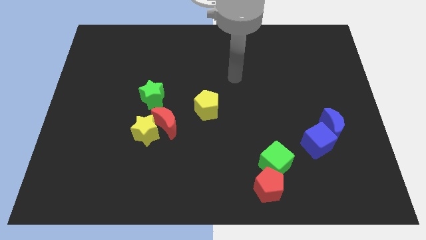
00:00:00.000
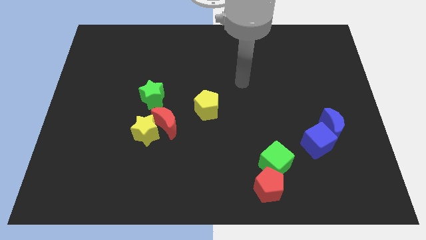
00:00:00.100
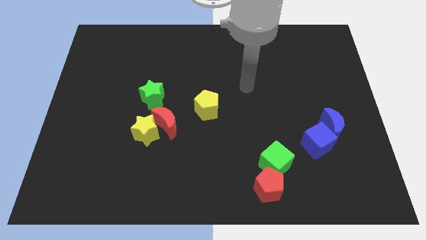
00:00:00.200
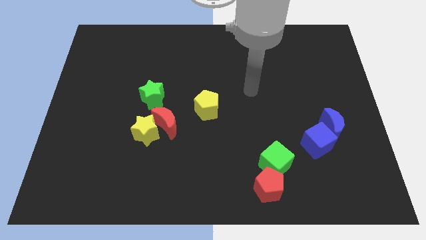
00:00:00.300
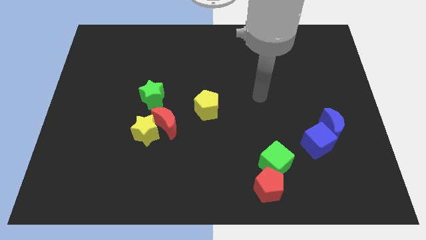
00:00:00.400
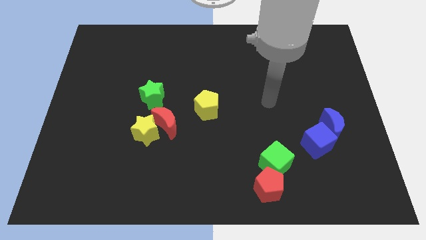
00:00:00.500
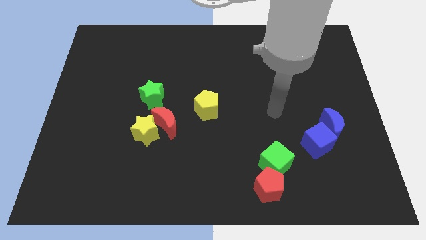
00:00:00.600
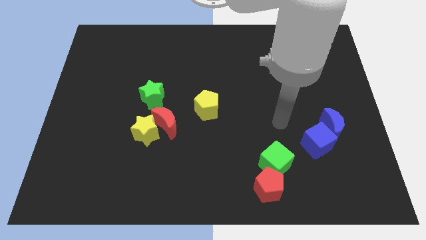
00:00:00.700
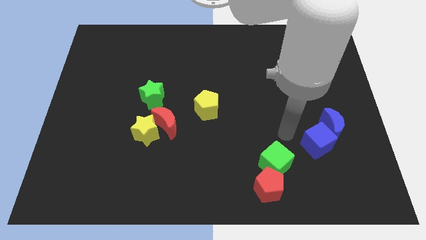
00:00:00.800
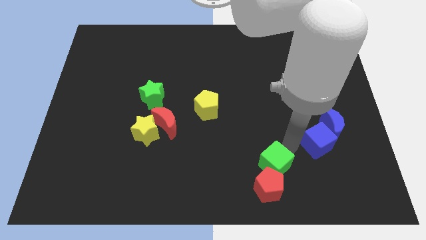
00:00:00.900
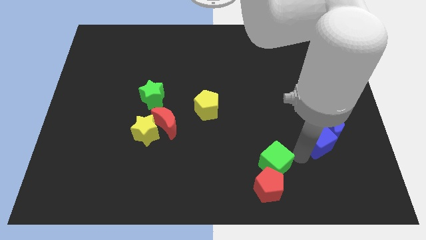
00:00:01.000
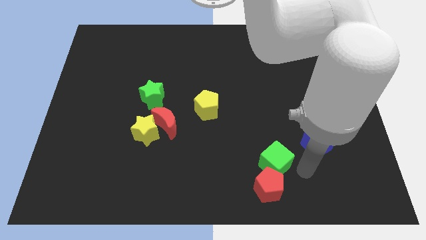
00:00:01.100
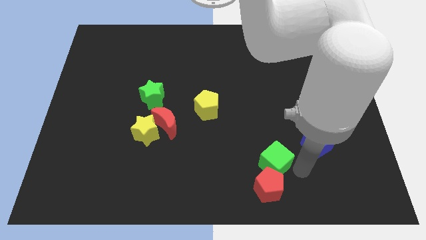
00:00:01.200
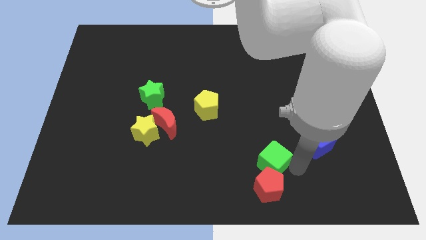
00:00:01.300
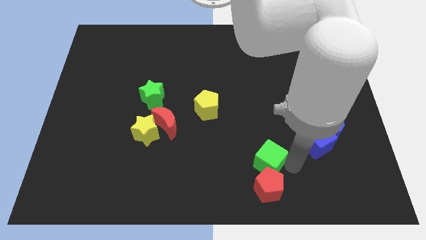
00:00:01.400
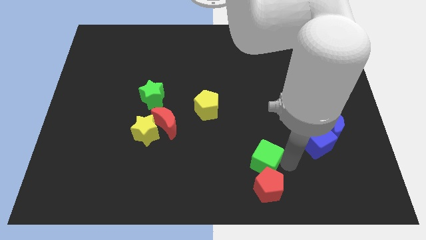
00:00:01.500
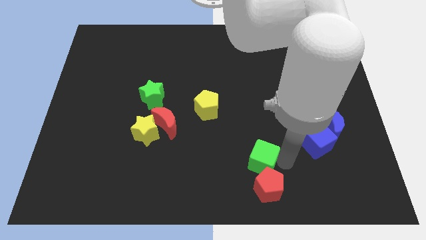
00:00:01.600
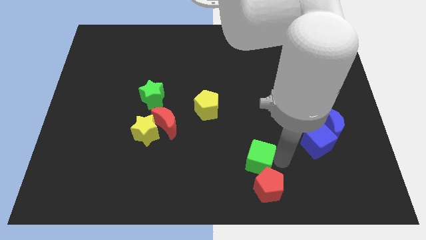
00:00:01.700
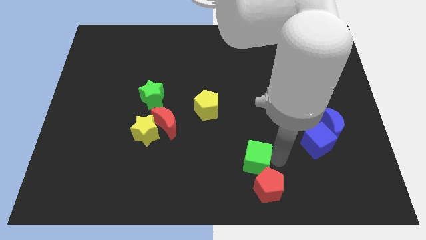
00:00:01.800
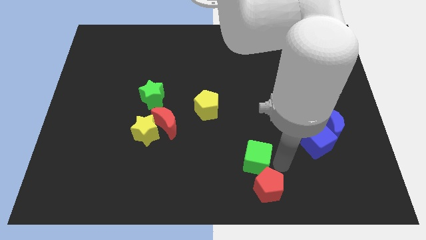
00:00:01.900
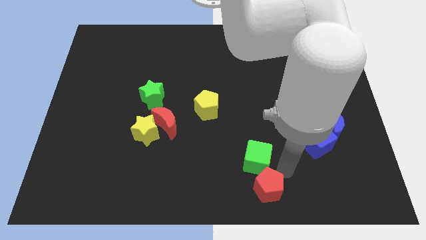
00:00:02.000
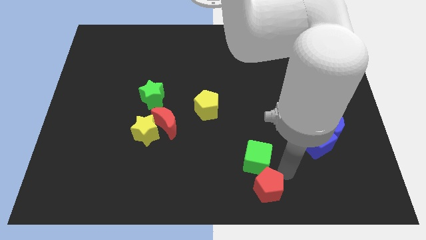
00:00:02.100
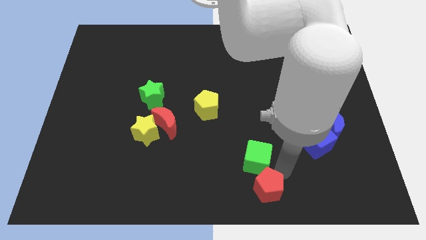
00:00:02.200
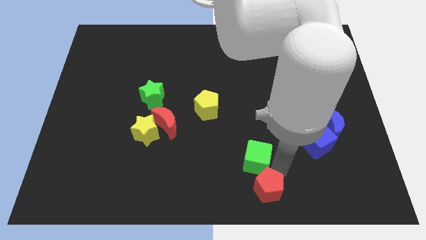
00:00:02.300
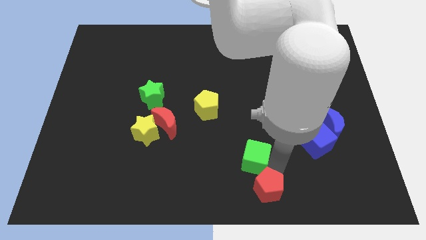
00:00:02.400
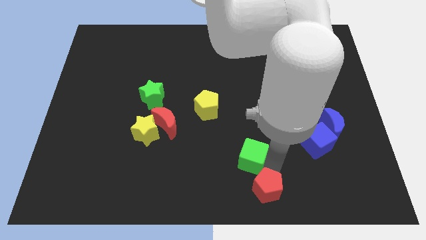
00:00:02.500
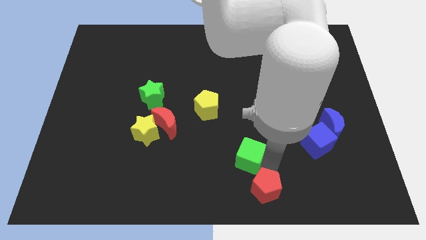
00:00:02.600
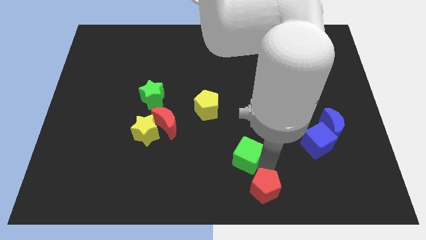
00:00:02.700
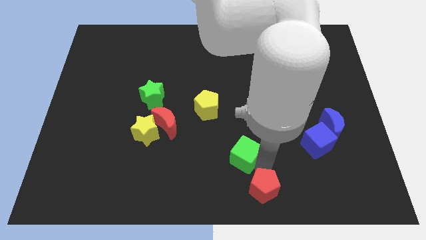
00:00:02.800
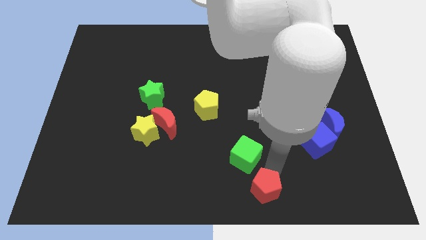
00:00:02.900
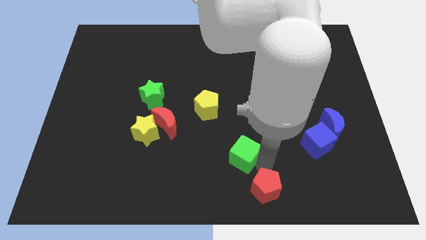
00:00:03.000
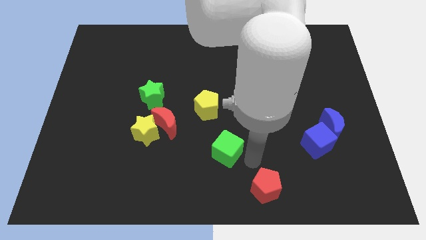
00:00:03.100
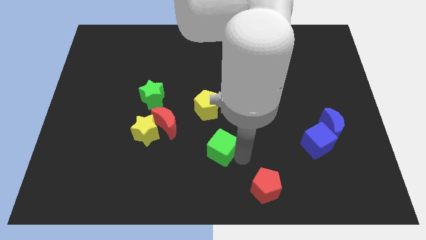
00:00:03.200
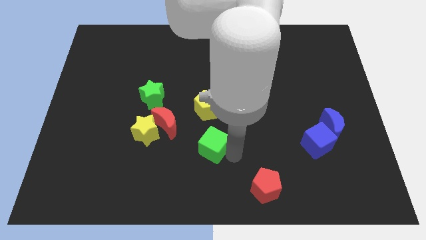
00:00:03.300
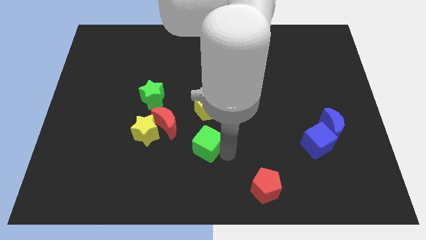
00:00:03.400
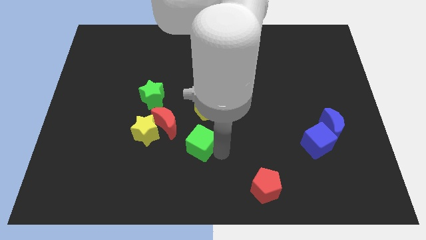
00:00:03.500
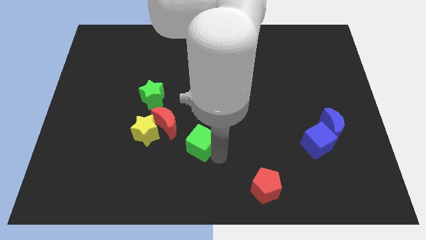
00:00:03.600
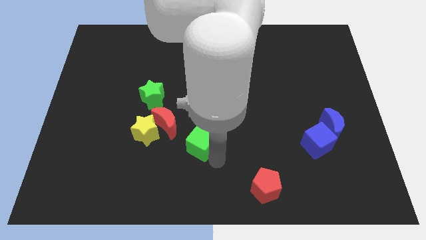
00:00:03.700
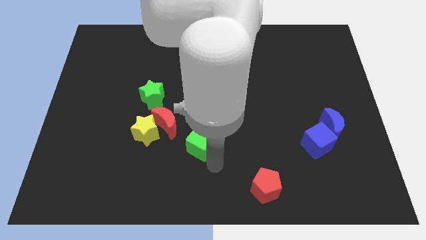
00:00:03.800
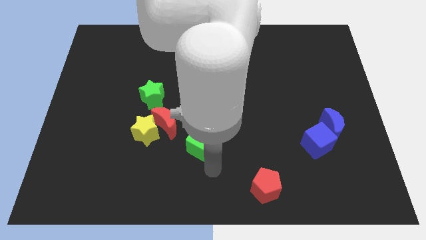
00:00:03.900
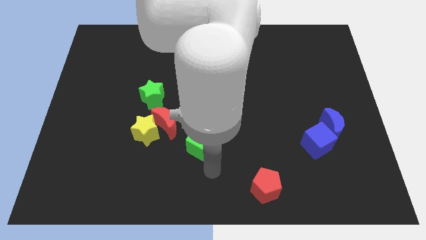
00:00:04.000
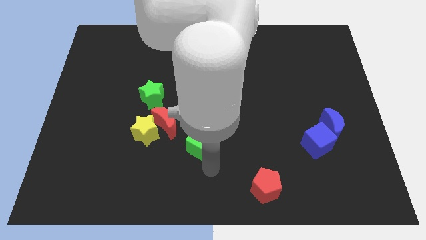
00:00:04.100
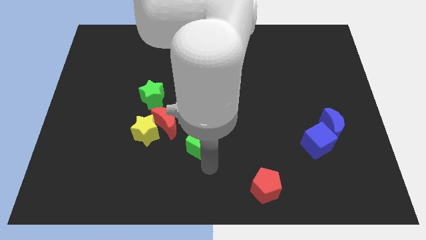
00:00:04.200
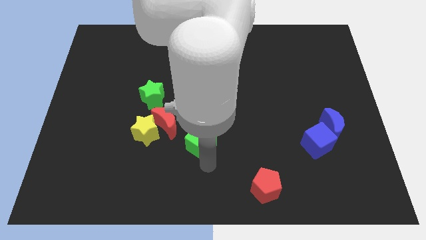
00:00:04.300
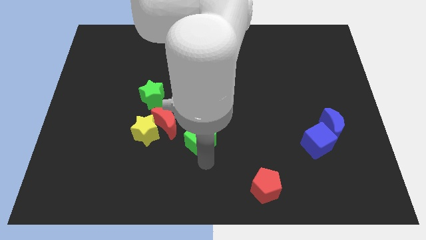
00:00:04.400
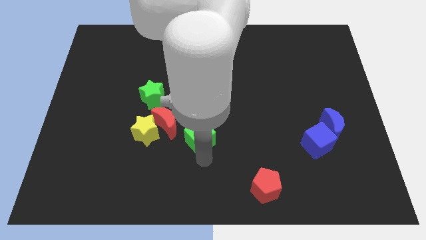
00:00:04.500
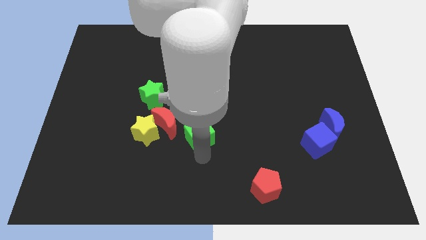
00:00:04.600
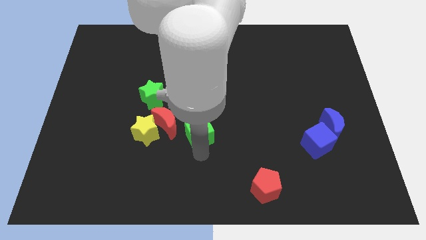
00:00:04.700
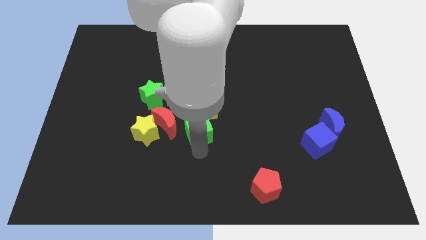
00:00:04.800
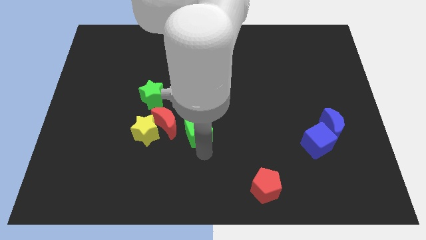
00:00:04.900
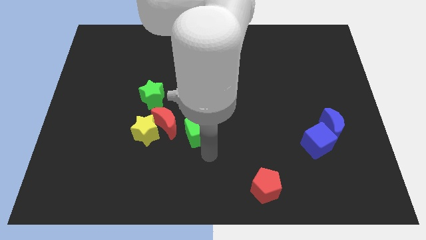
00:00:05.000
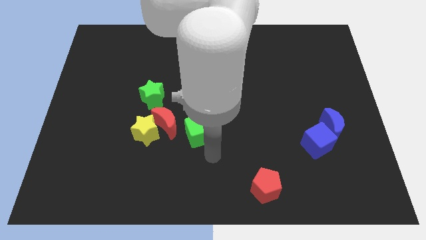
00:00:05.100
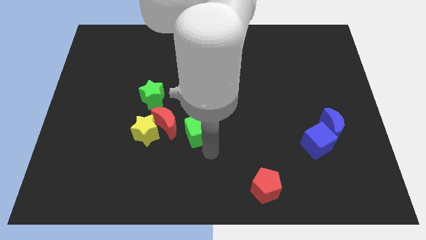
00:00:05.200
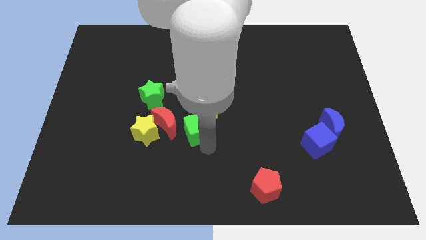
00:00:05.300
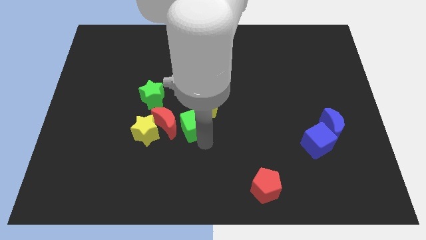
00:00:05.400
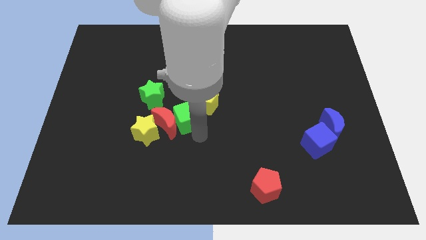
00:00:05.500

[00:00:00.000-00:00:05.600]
push the green cube upwards and to the left diagonally

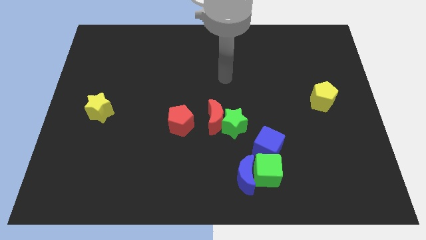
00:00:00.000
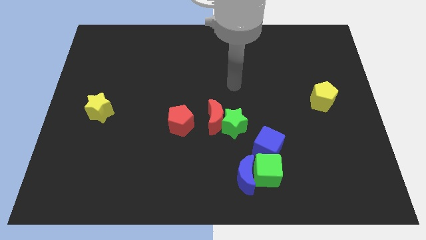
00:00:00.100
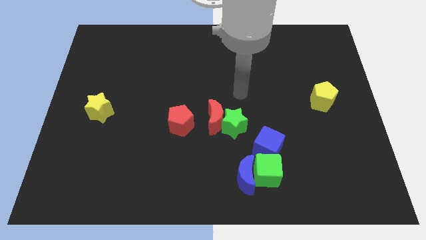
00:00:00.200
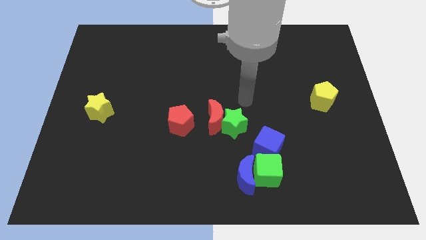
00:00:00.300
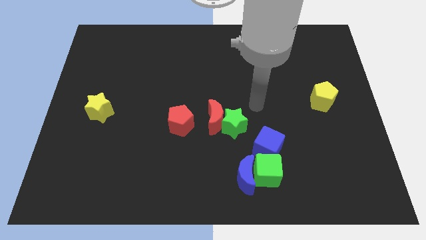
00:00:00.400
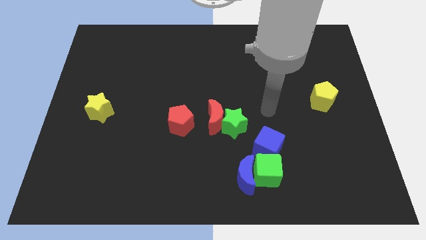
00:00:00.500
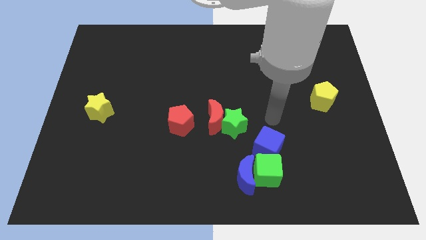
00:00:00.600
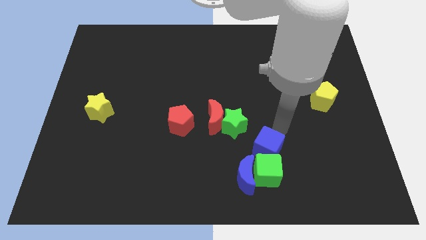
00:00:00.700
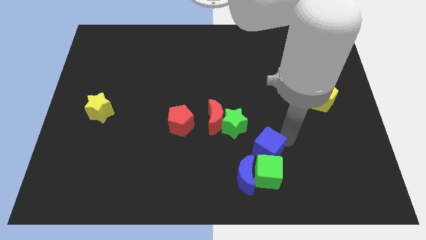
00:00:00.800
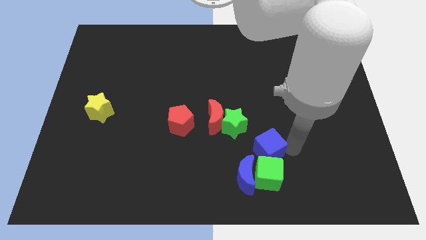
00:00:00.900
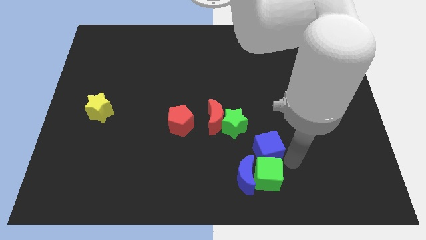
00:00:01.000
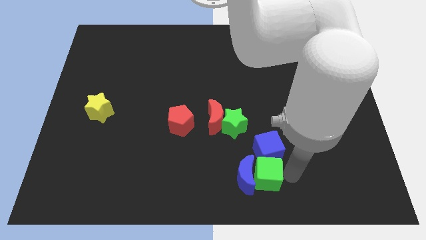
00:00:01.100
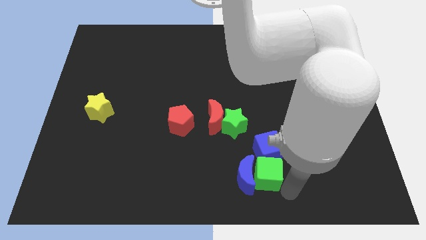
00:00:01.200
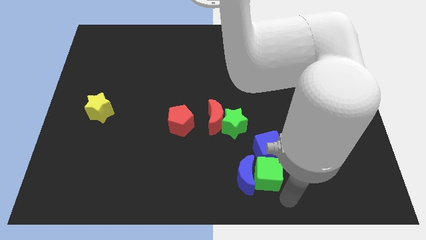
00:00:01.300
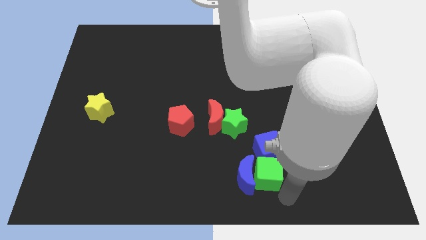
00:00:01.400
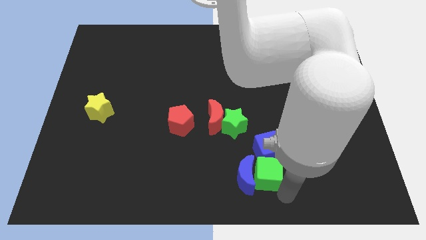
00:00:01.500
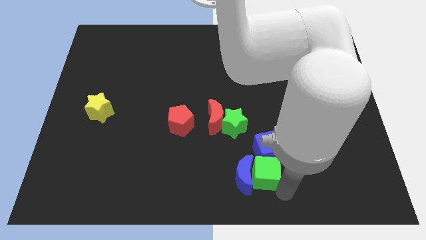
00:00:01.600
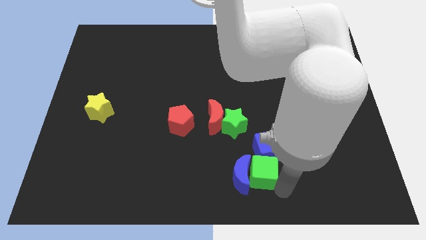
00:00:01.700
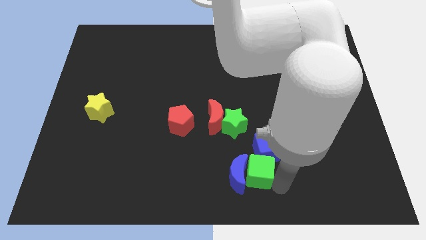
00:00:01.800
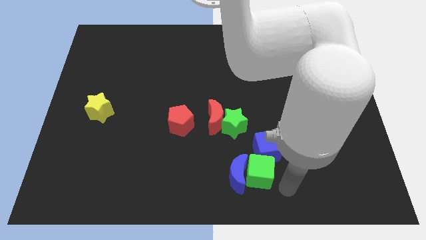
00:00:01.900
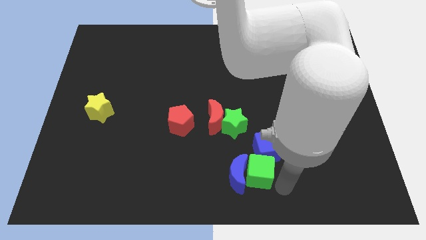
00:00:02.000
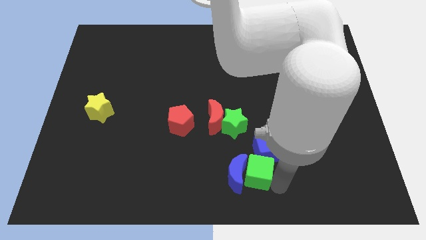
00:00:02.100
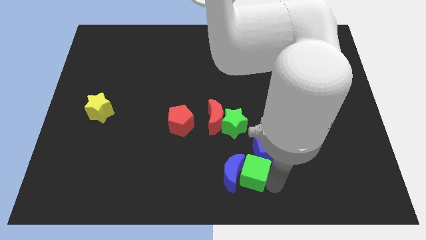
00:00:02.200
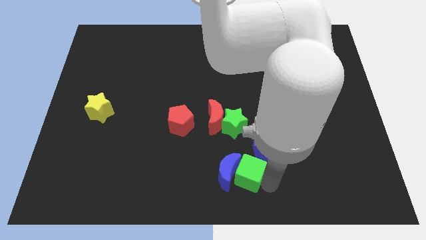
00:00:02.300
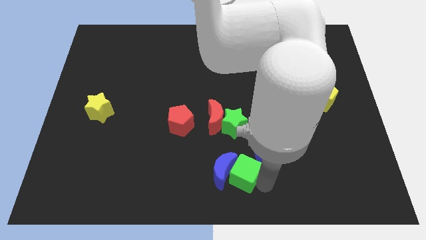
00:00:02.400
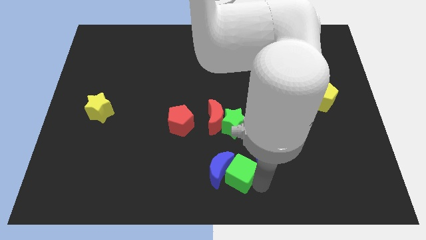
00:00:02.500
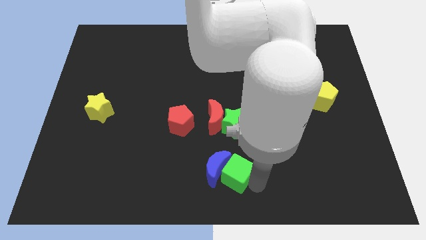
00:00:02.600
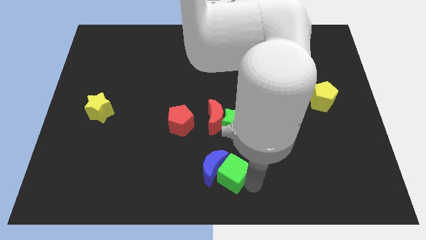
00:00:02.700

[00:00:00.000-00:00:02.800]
move the green cube to the left a little

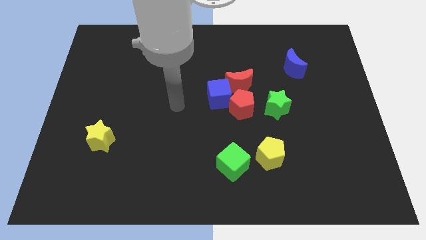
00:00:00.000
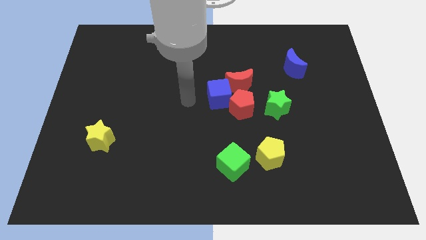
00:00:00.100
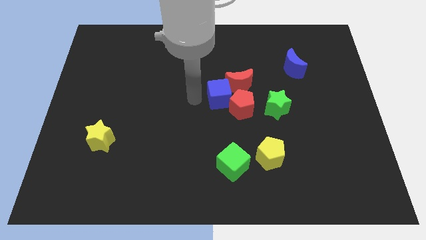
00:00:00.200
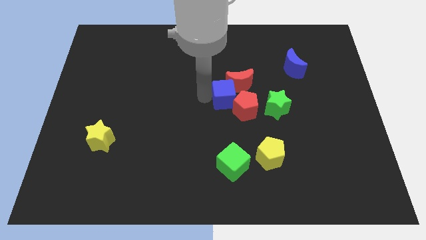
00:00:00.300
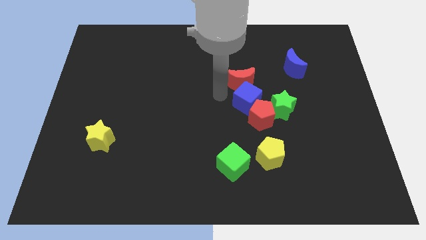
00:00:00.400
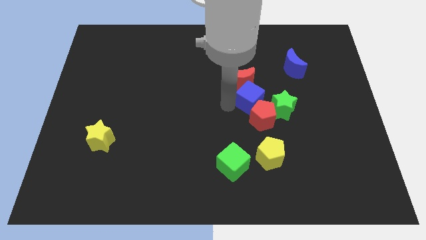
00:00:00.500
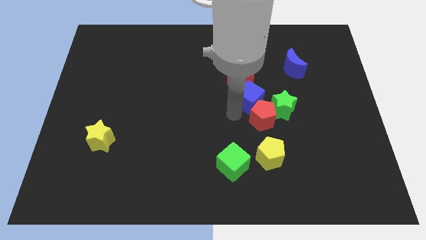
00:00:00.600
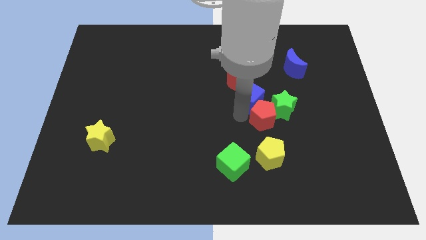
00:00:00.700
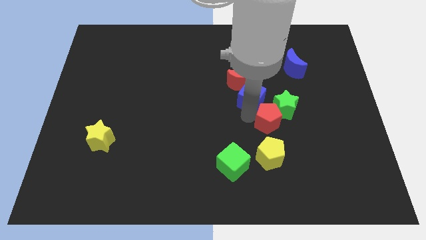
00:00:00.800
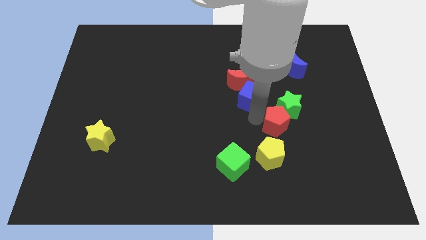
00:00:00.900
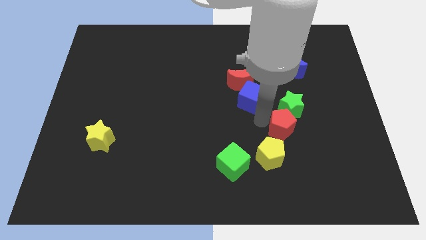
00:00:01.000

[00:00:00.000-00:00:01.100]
slightly slide the red pentagon to the right
